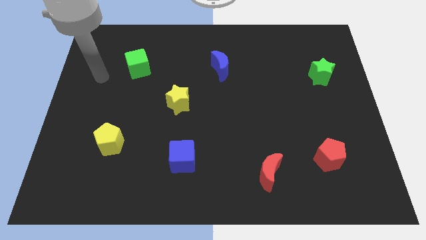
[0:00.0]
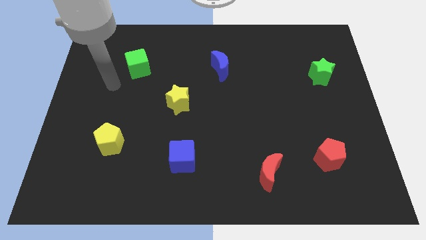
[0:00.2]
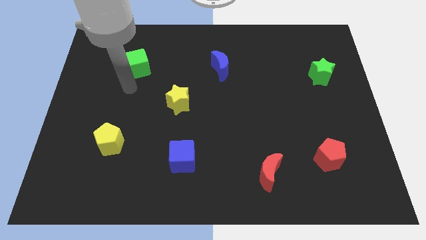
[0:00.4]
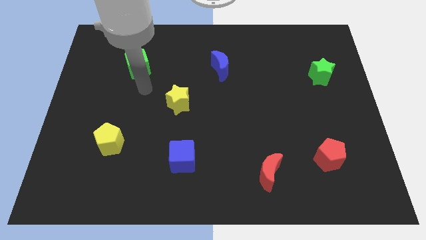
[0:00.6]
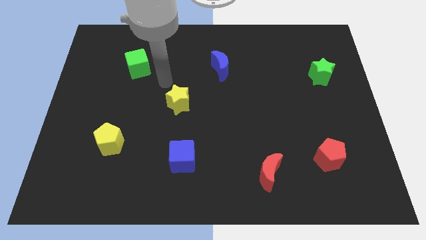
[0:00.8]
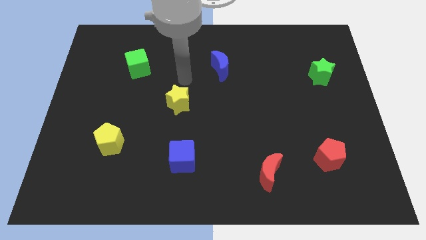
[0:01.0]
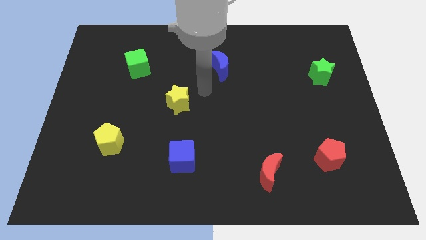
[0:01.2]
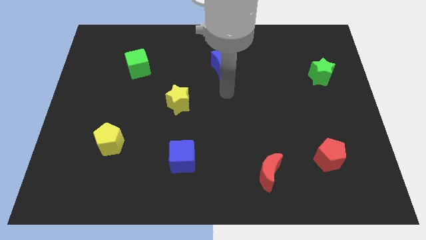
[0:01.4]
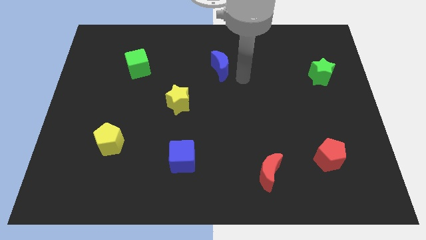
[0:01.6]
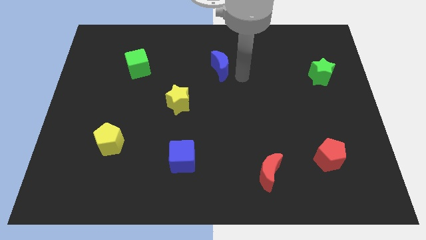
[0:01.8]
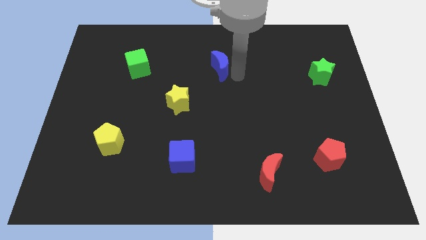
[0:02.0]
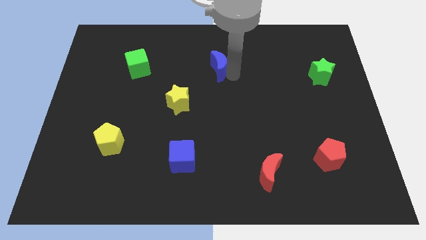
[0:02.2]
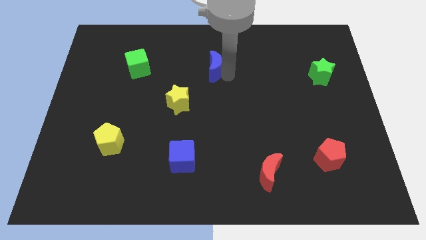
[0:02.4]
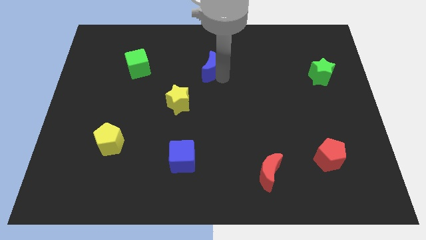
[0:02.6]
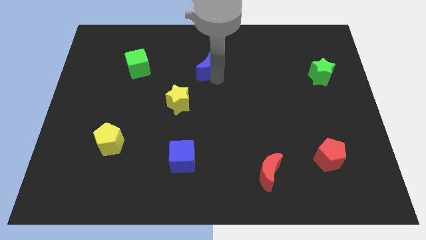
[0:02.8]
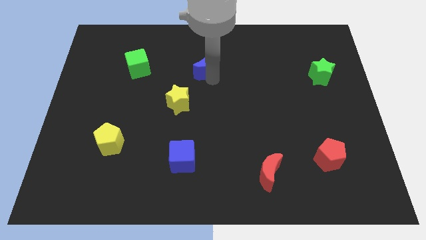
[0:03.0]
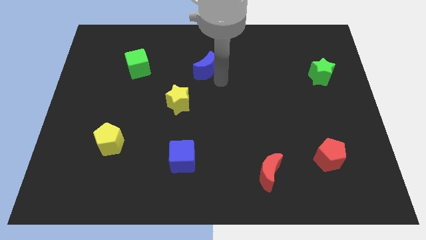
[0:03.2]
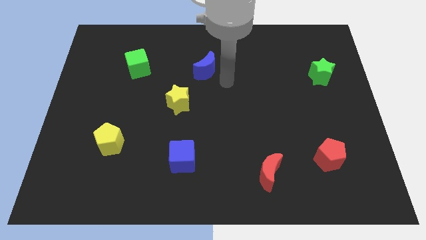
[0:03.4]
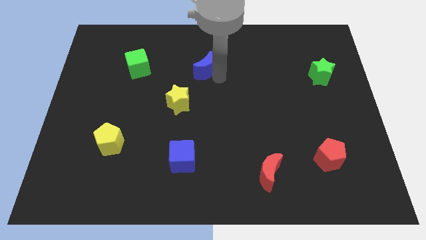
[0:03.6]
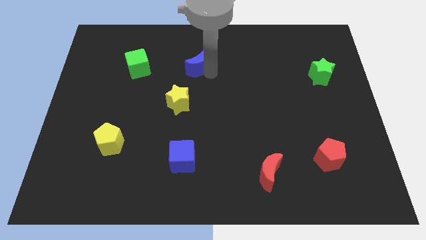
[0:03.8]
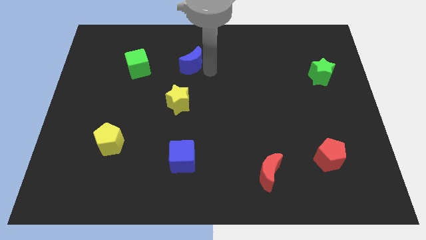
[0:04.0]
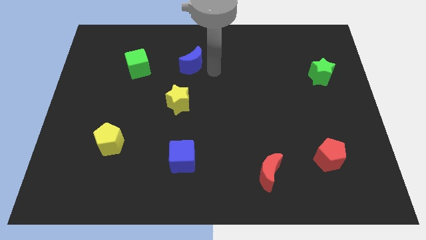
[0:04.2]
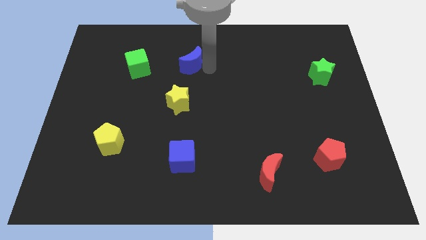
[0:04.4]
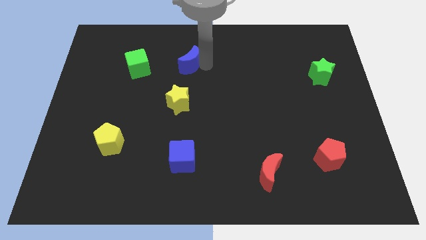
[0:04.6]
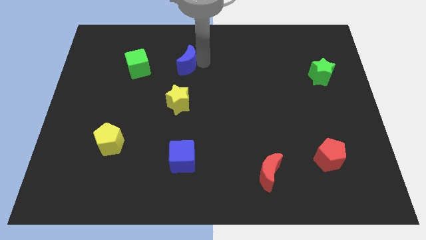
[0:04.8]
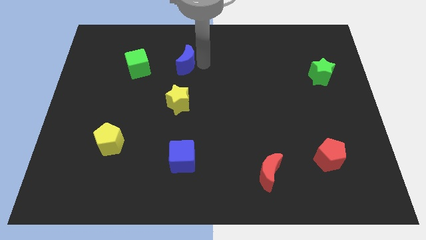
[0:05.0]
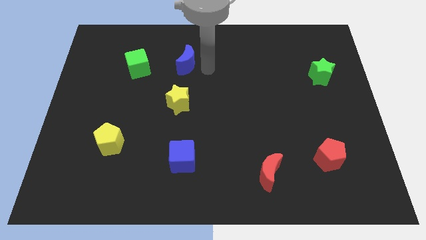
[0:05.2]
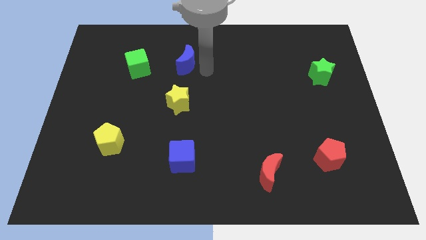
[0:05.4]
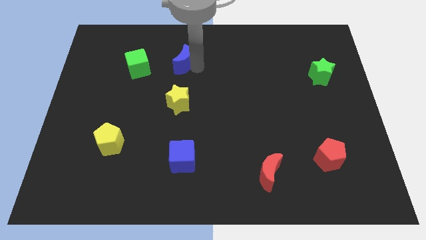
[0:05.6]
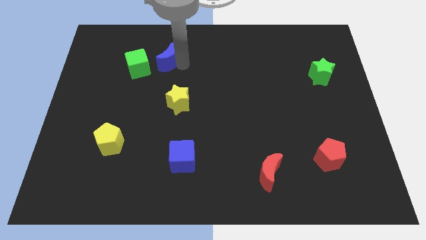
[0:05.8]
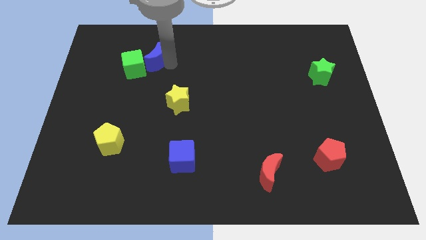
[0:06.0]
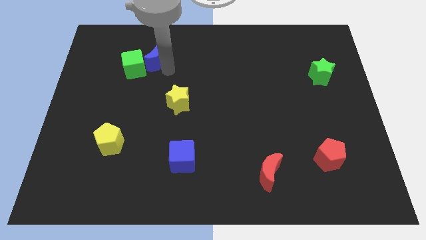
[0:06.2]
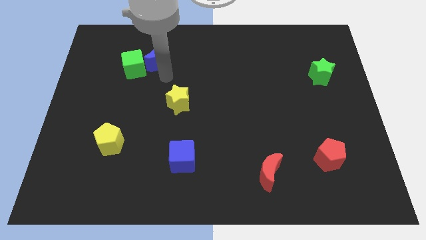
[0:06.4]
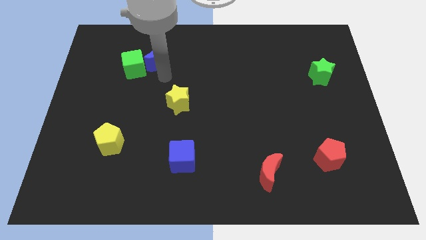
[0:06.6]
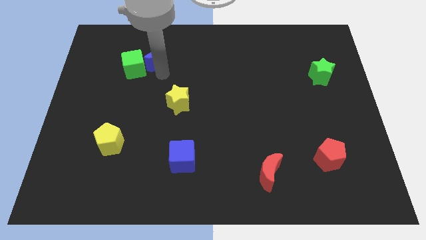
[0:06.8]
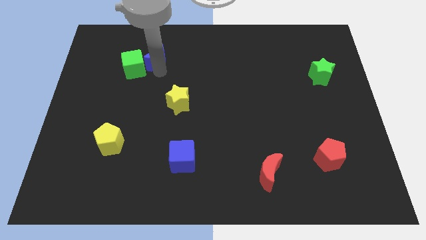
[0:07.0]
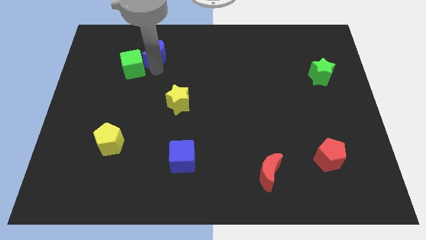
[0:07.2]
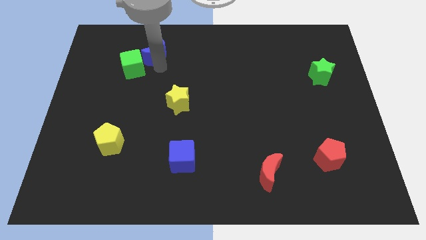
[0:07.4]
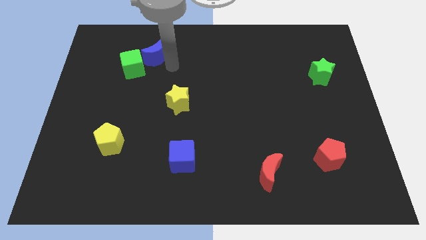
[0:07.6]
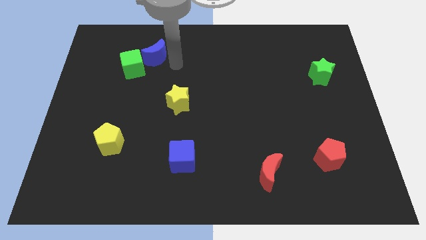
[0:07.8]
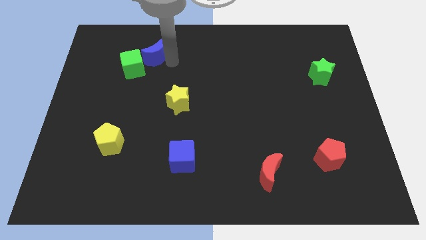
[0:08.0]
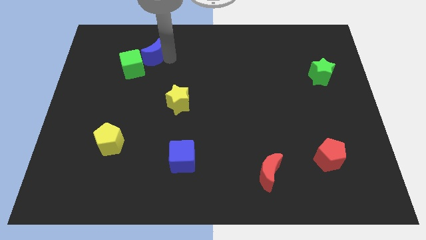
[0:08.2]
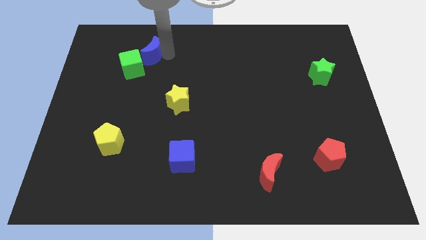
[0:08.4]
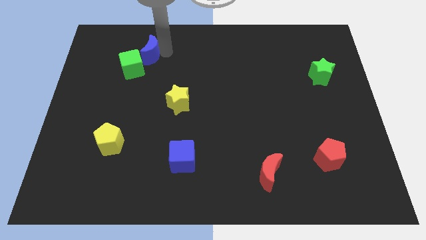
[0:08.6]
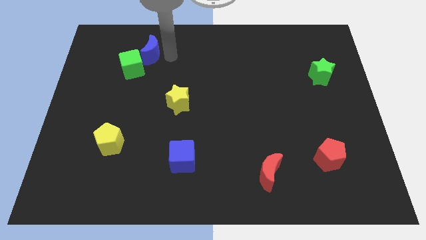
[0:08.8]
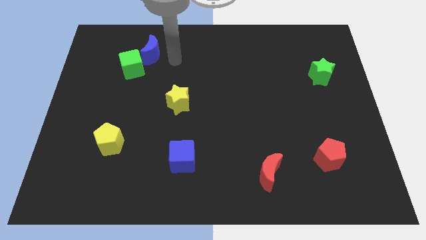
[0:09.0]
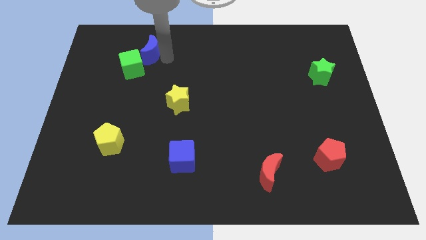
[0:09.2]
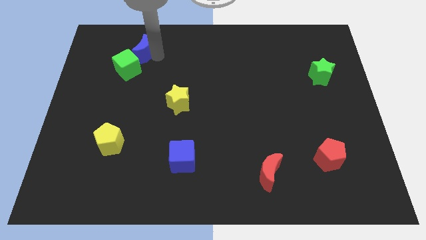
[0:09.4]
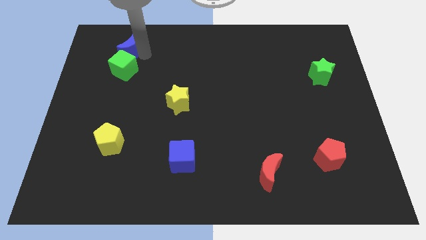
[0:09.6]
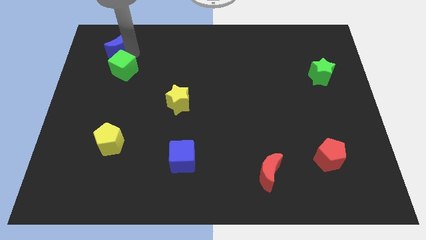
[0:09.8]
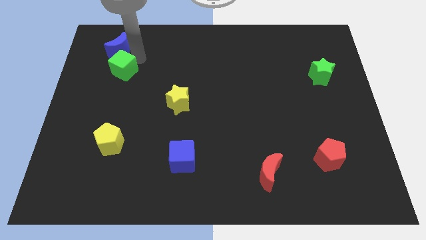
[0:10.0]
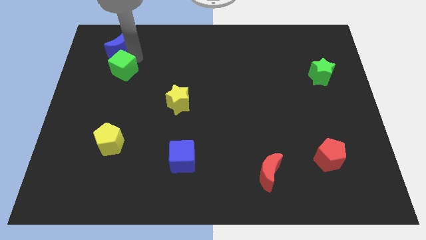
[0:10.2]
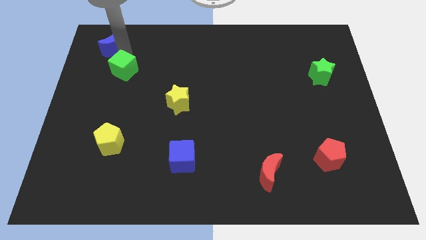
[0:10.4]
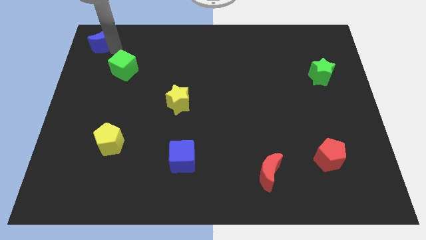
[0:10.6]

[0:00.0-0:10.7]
slide the blue moon to the upper left corner

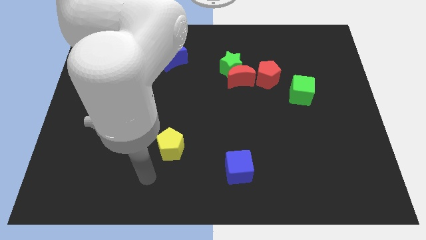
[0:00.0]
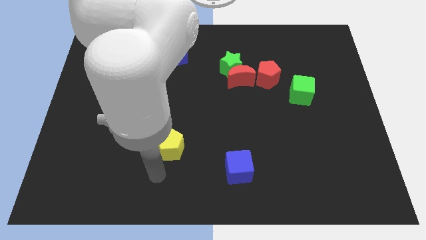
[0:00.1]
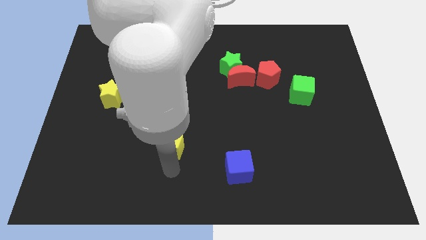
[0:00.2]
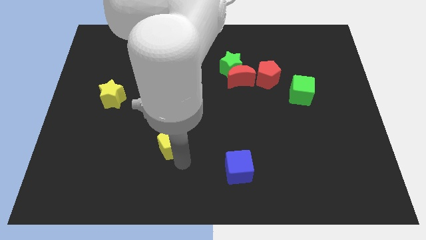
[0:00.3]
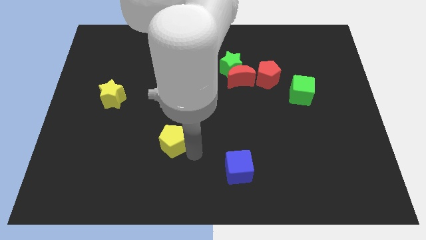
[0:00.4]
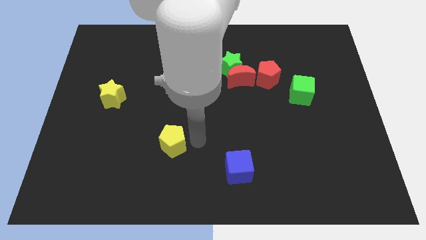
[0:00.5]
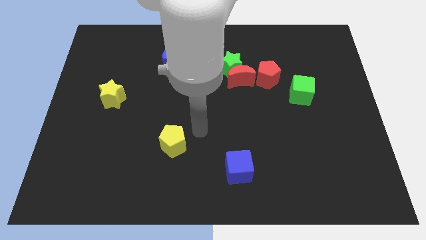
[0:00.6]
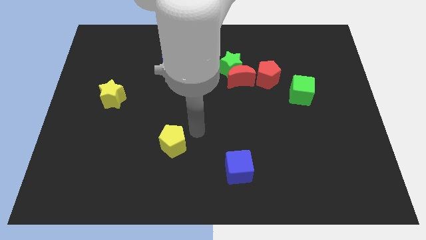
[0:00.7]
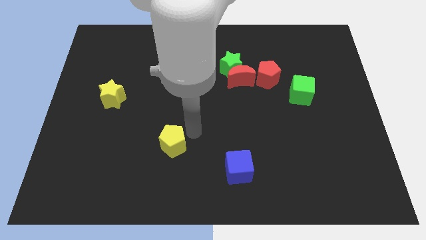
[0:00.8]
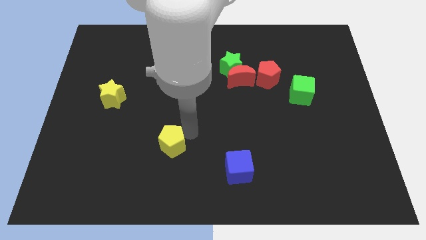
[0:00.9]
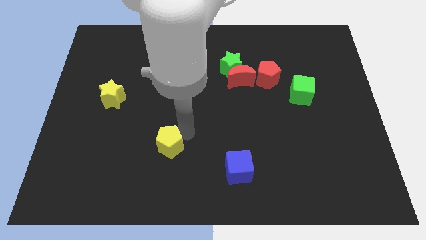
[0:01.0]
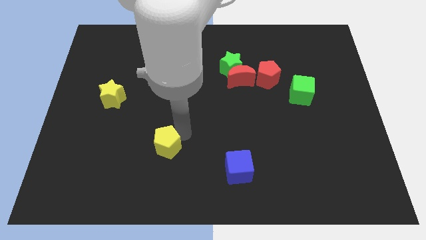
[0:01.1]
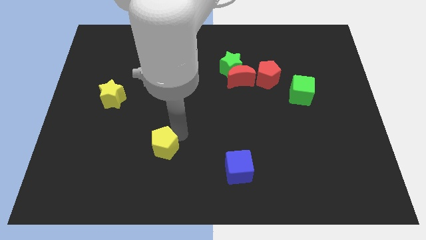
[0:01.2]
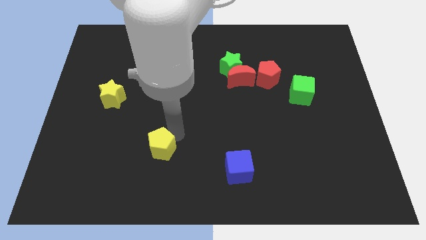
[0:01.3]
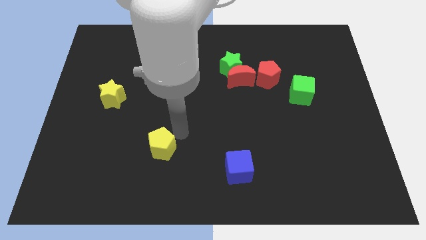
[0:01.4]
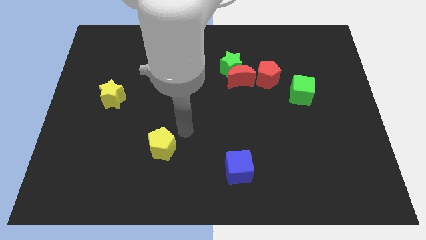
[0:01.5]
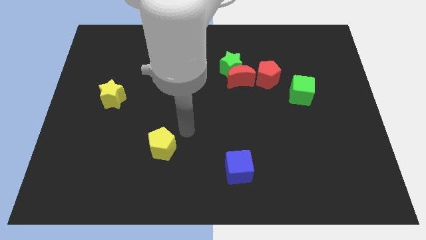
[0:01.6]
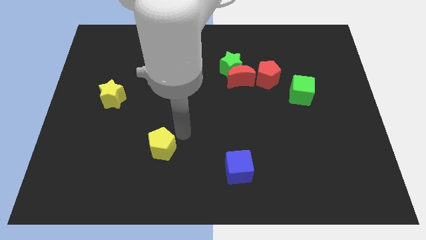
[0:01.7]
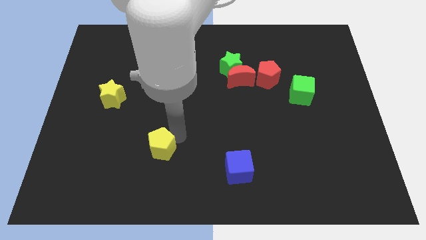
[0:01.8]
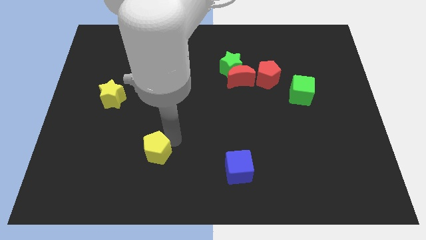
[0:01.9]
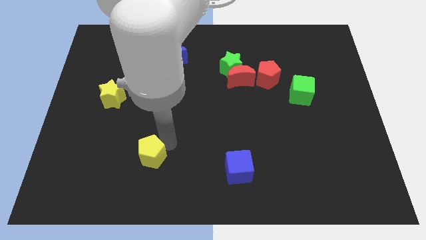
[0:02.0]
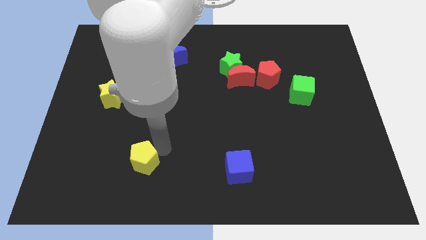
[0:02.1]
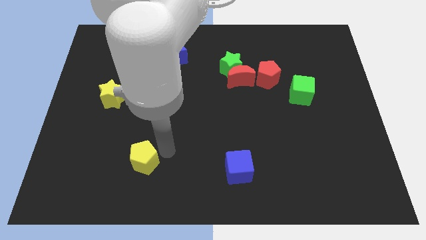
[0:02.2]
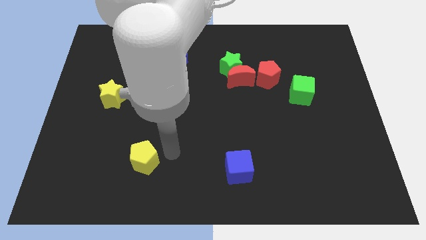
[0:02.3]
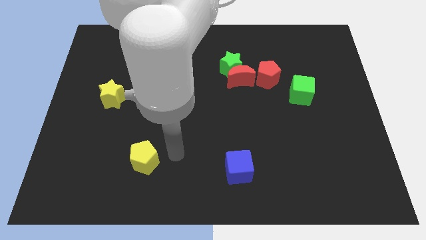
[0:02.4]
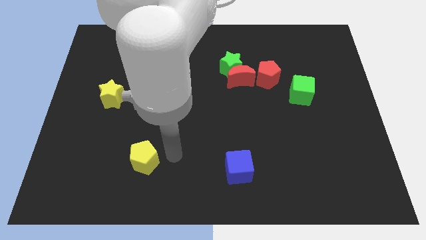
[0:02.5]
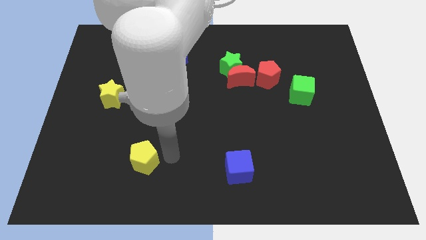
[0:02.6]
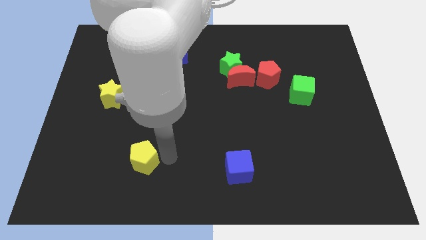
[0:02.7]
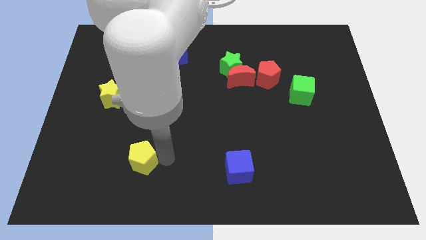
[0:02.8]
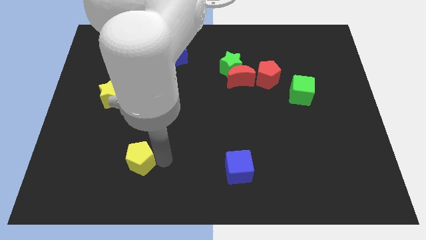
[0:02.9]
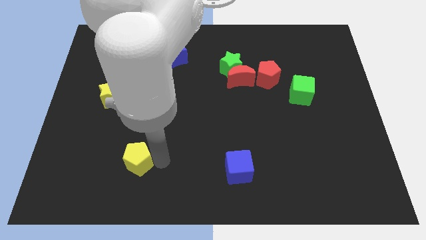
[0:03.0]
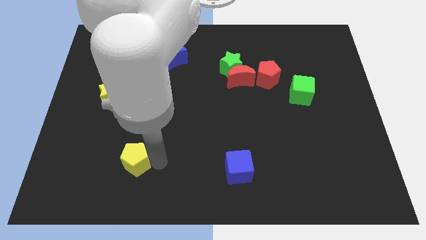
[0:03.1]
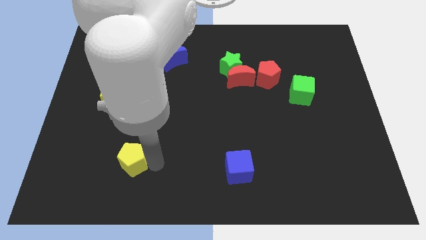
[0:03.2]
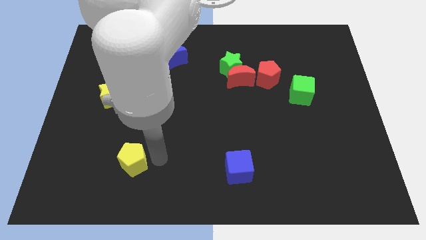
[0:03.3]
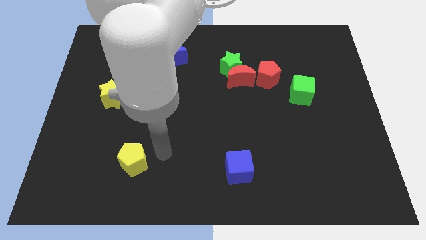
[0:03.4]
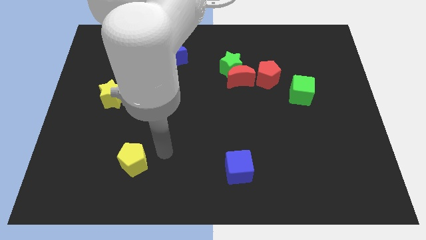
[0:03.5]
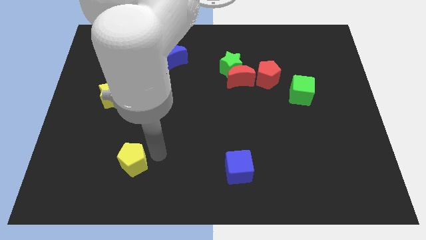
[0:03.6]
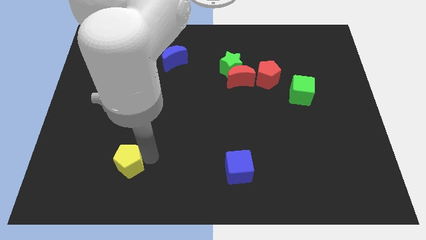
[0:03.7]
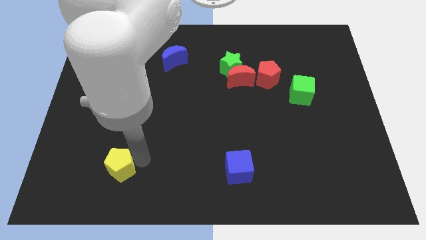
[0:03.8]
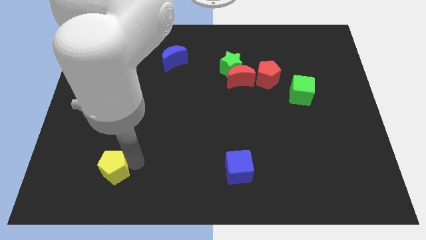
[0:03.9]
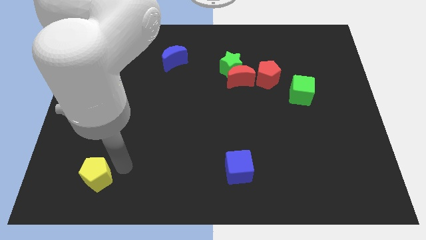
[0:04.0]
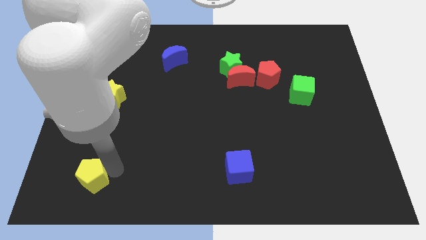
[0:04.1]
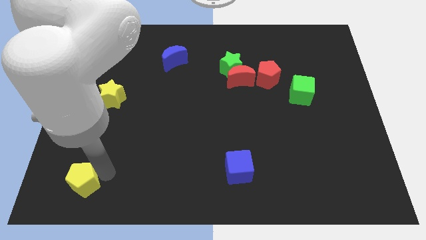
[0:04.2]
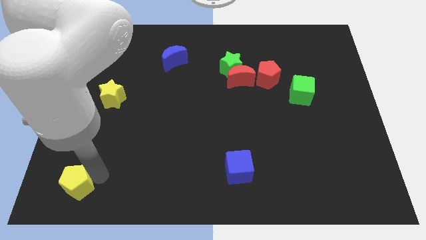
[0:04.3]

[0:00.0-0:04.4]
move the yellow pentagon to the bottom left corner
